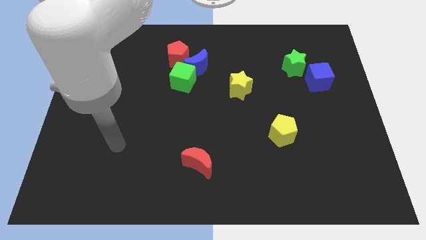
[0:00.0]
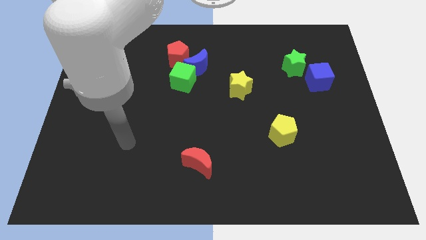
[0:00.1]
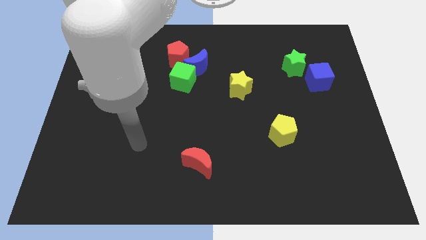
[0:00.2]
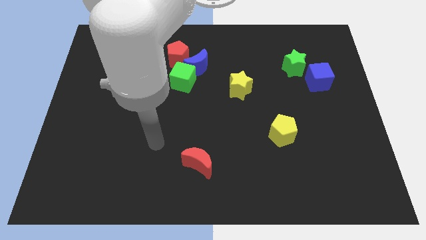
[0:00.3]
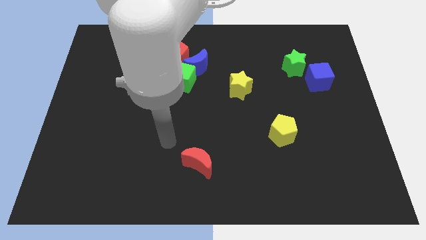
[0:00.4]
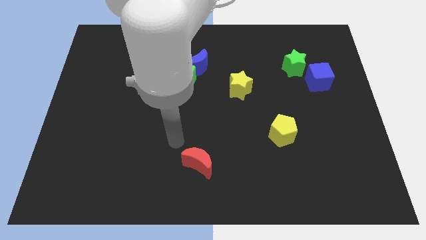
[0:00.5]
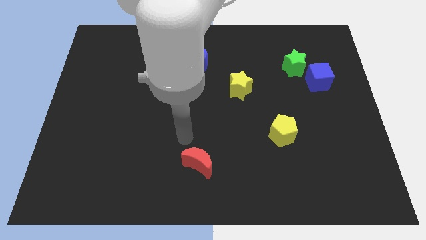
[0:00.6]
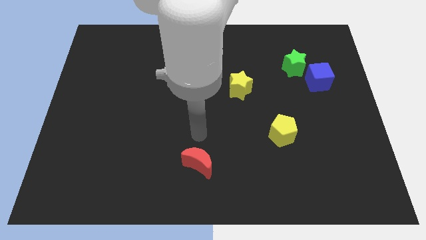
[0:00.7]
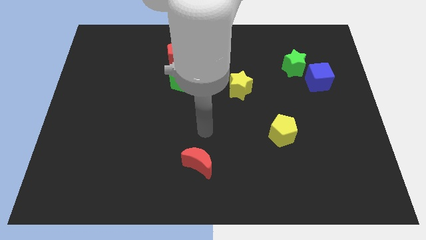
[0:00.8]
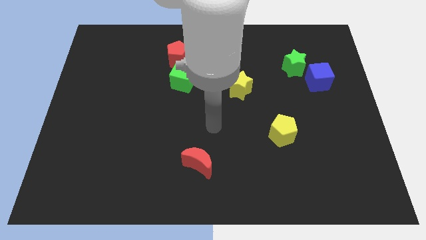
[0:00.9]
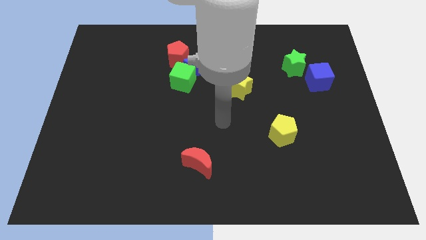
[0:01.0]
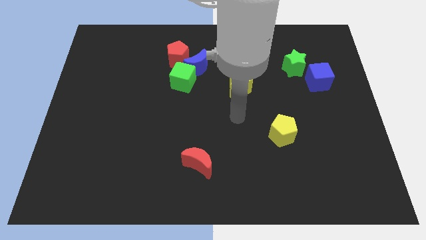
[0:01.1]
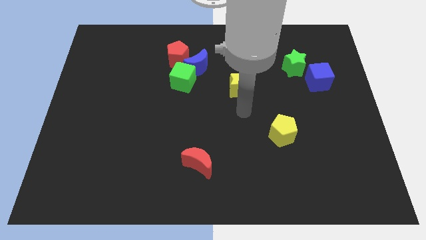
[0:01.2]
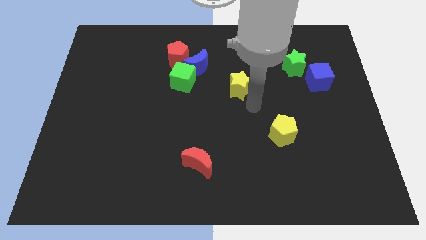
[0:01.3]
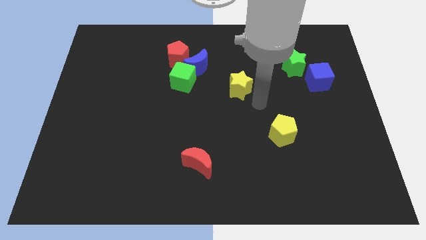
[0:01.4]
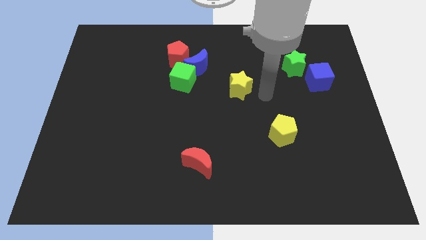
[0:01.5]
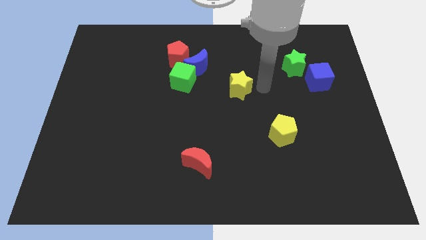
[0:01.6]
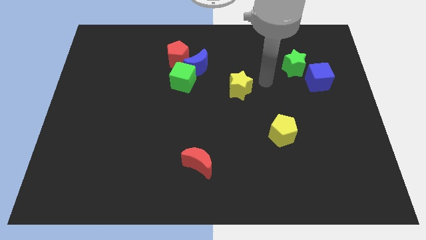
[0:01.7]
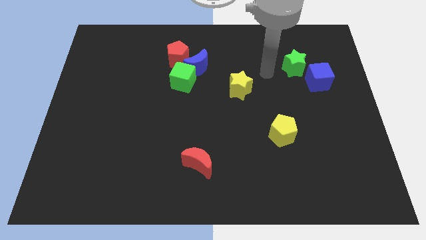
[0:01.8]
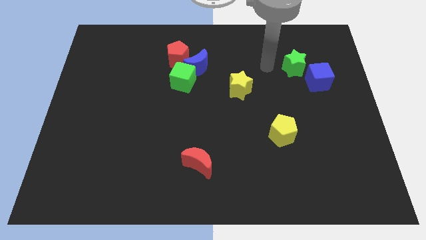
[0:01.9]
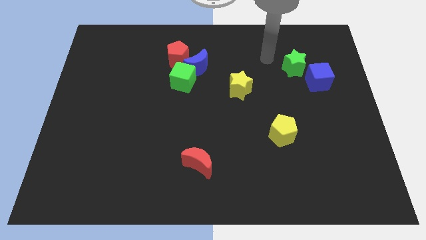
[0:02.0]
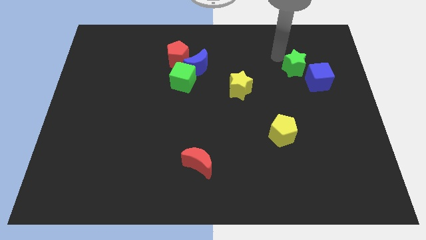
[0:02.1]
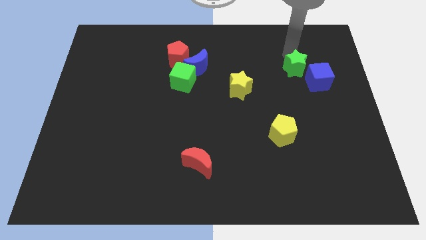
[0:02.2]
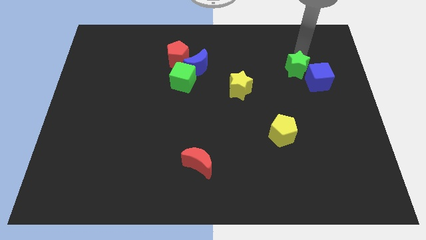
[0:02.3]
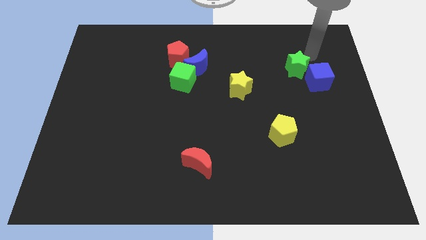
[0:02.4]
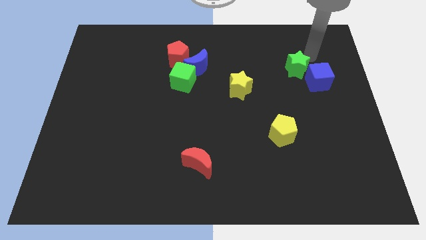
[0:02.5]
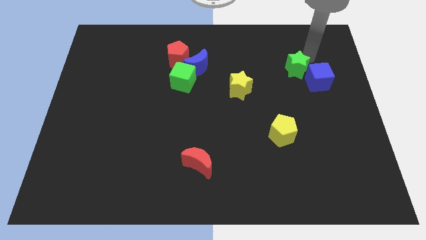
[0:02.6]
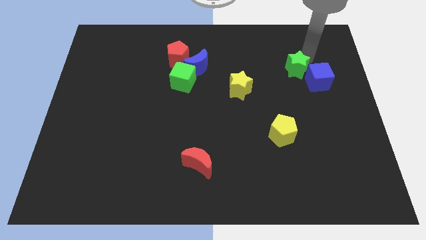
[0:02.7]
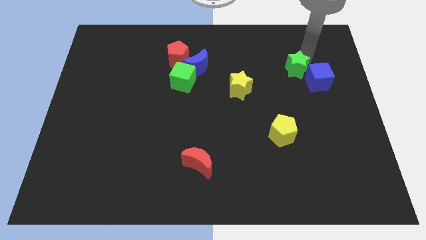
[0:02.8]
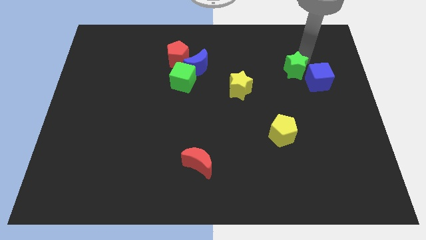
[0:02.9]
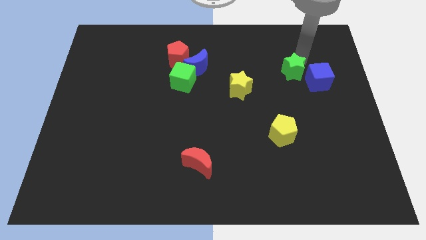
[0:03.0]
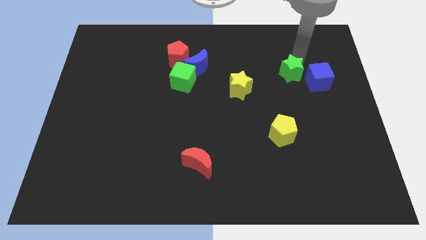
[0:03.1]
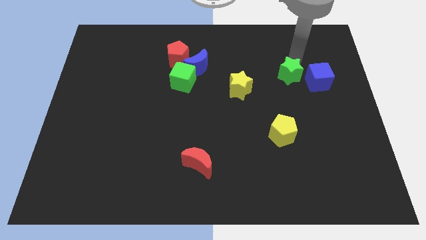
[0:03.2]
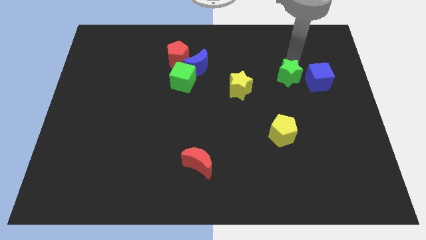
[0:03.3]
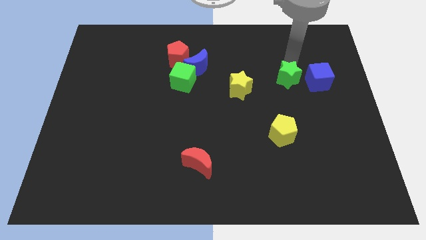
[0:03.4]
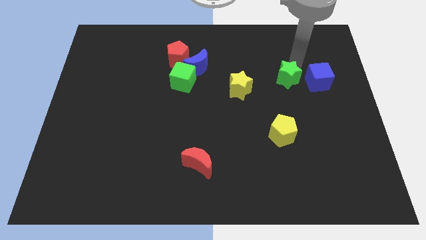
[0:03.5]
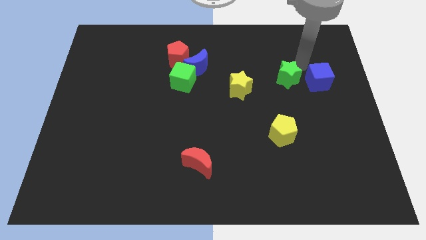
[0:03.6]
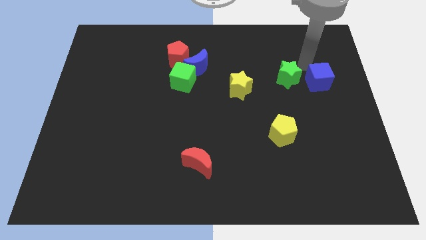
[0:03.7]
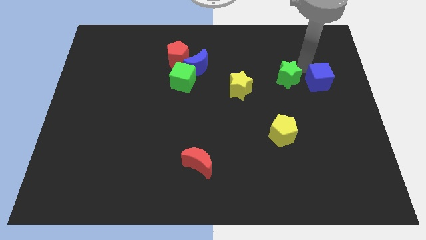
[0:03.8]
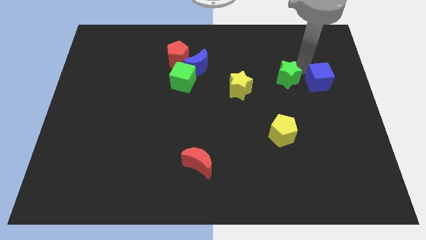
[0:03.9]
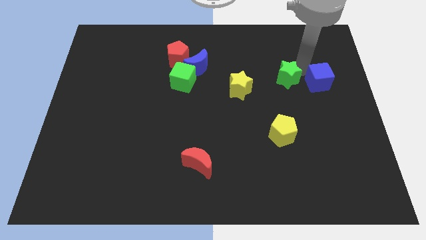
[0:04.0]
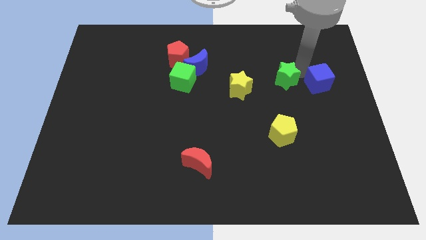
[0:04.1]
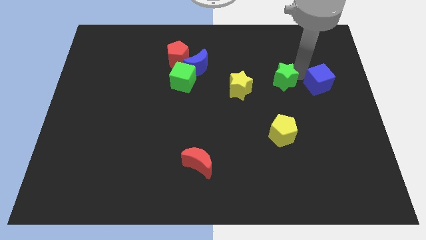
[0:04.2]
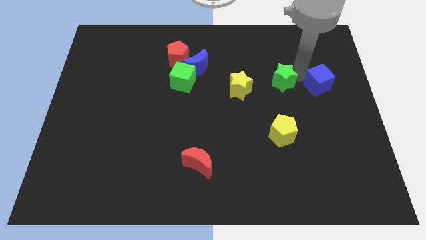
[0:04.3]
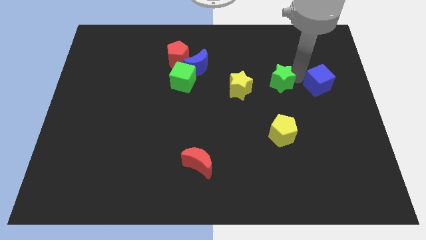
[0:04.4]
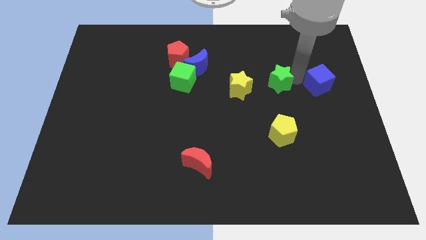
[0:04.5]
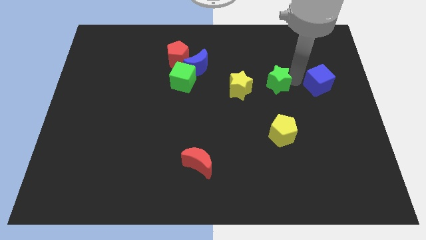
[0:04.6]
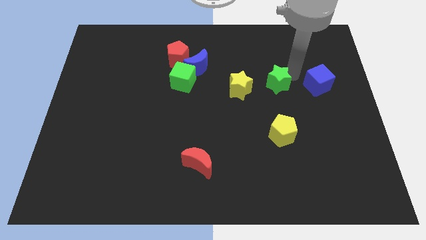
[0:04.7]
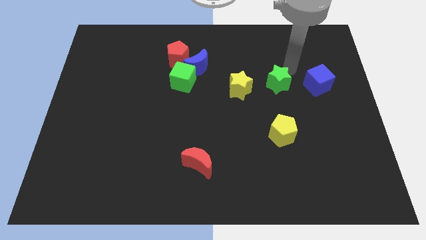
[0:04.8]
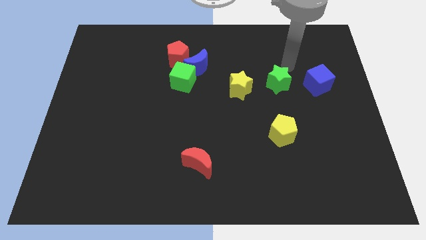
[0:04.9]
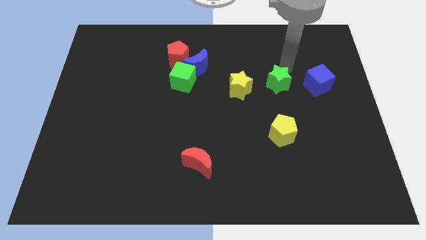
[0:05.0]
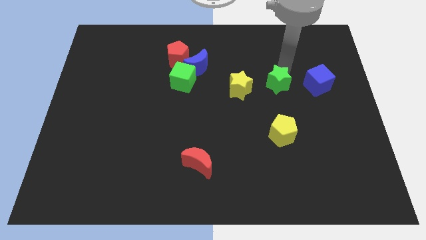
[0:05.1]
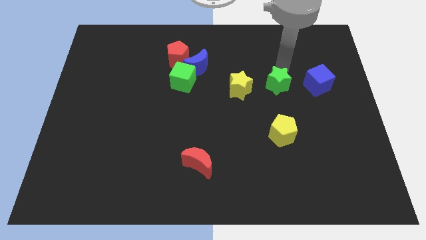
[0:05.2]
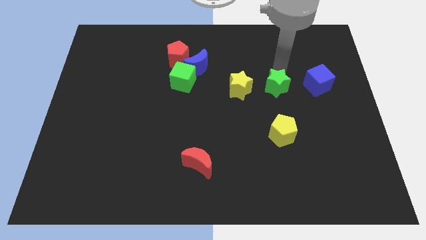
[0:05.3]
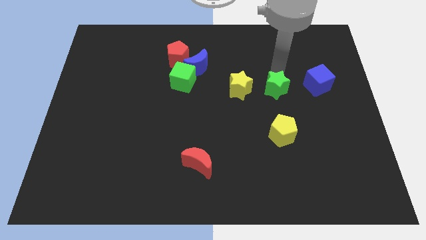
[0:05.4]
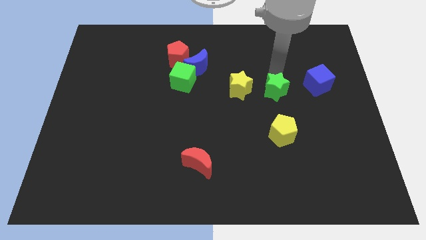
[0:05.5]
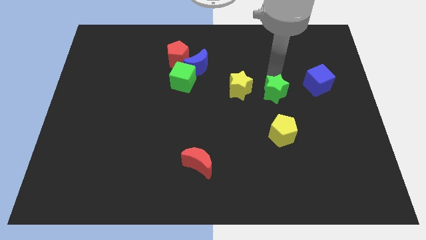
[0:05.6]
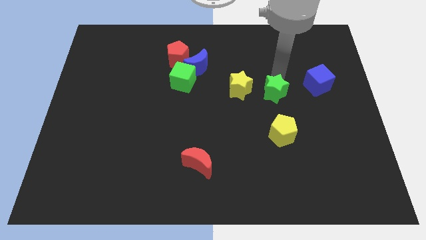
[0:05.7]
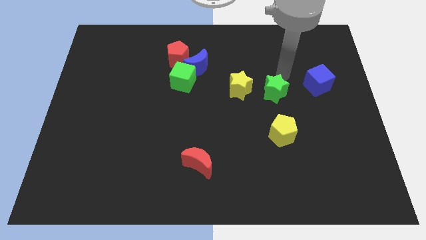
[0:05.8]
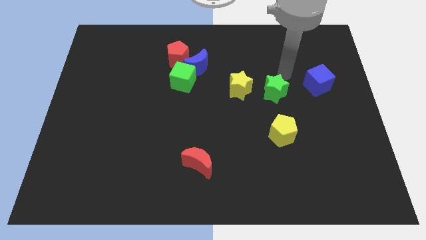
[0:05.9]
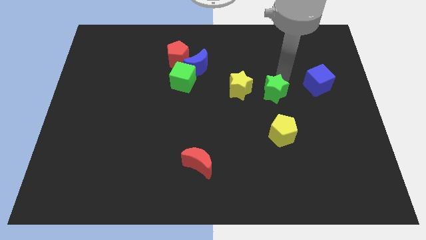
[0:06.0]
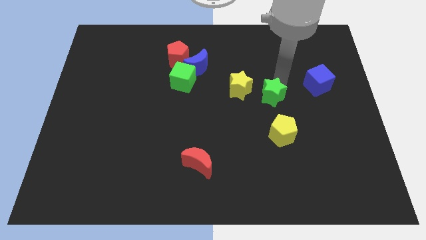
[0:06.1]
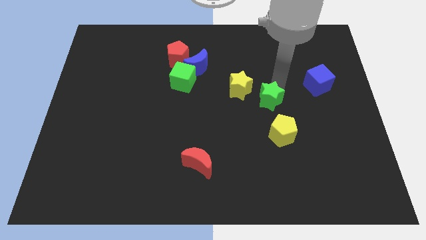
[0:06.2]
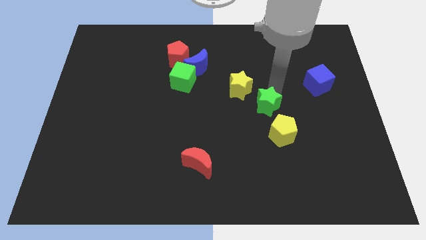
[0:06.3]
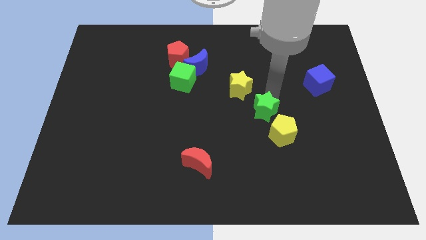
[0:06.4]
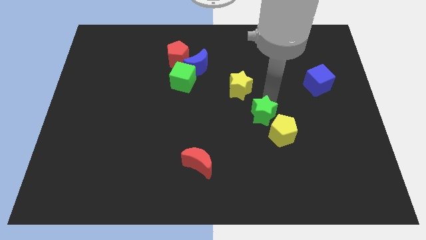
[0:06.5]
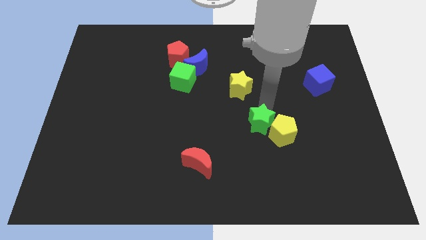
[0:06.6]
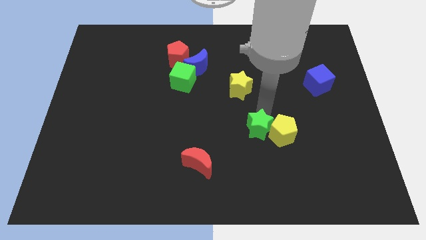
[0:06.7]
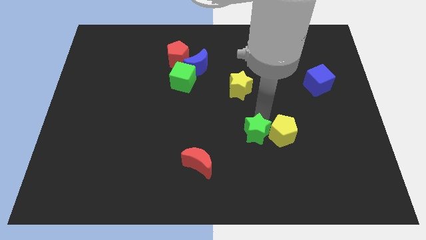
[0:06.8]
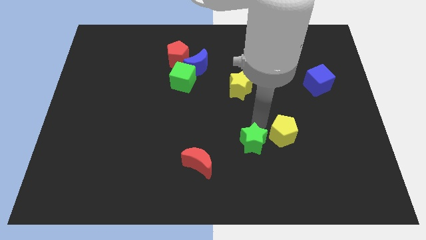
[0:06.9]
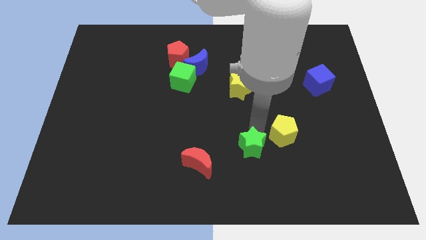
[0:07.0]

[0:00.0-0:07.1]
slide the green star to the right of the red moon
